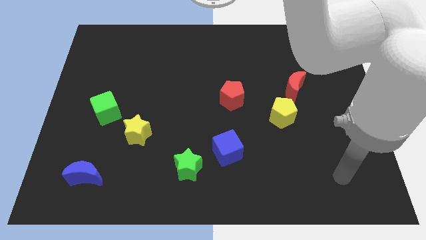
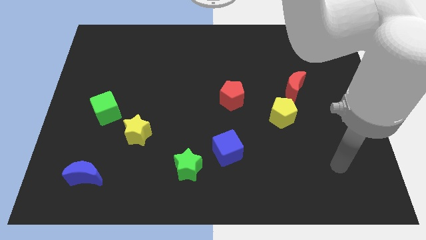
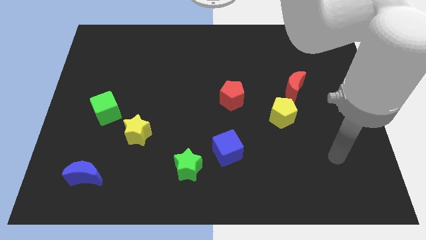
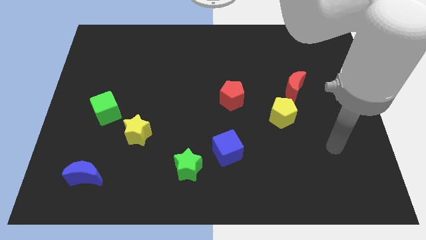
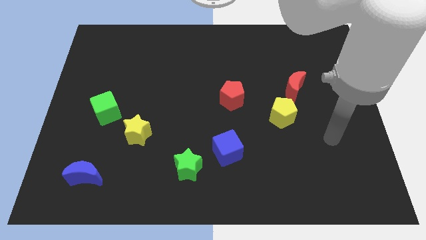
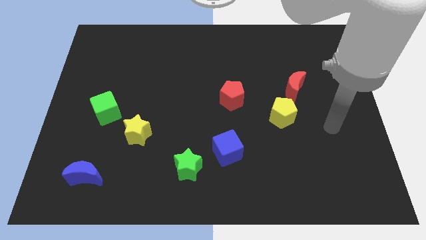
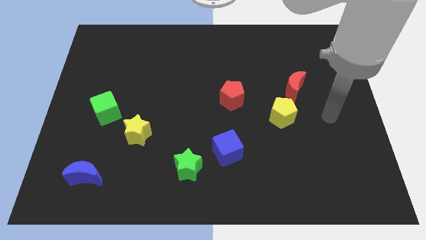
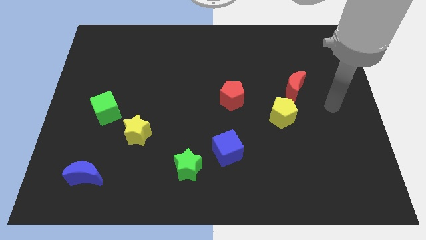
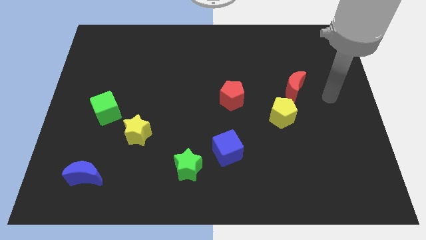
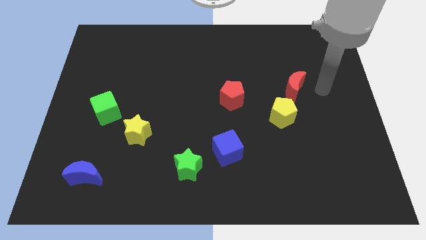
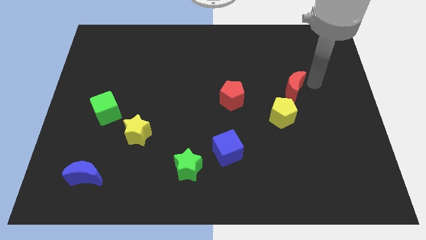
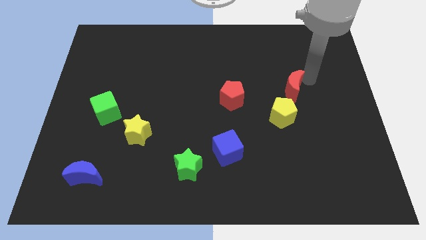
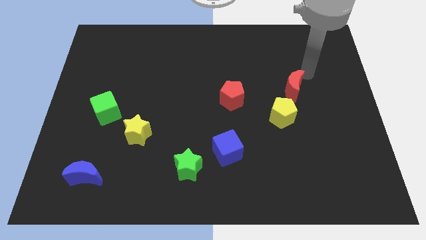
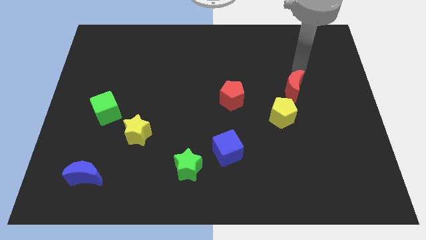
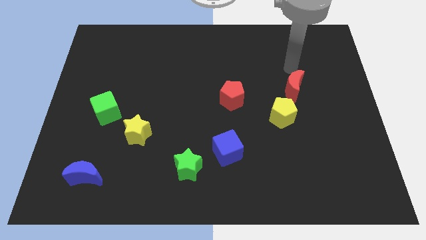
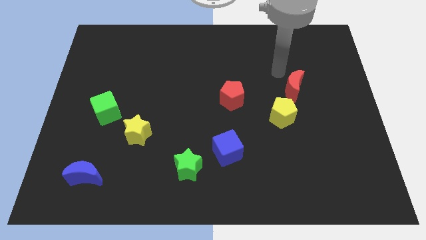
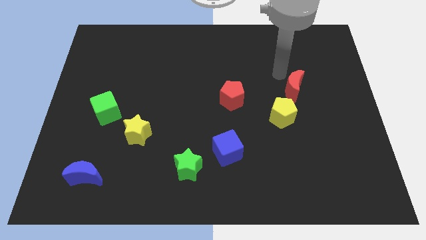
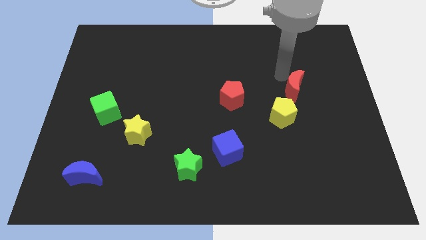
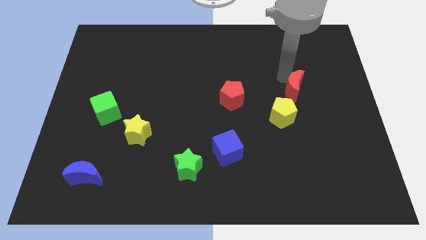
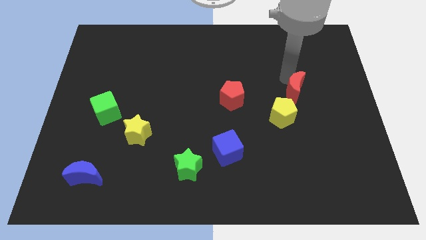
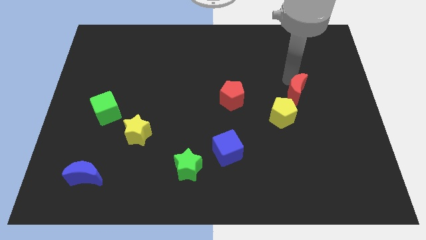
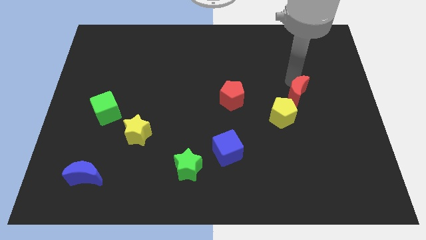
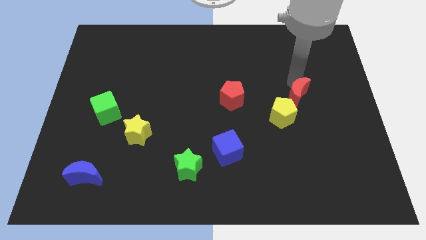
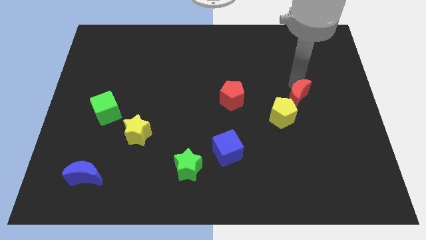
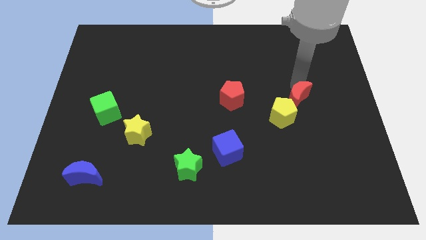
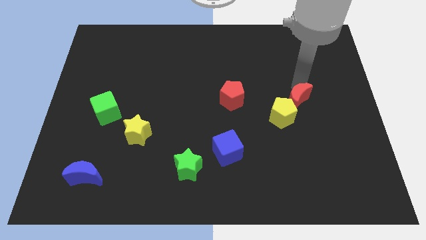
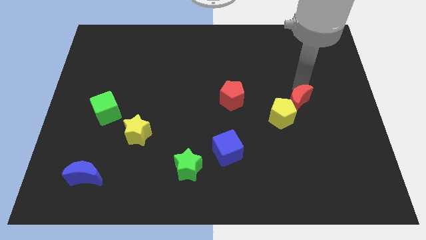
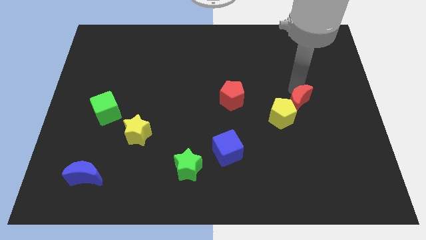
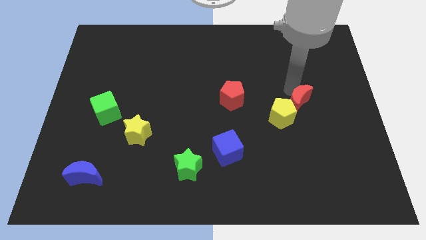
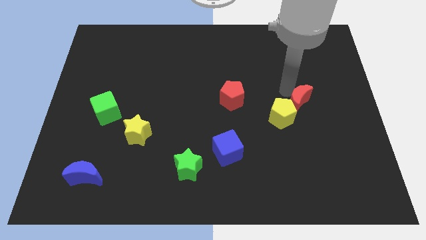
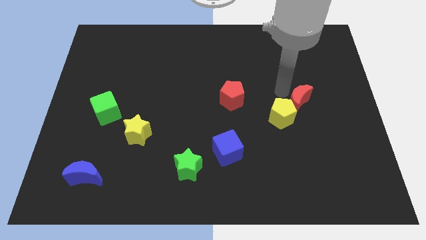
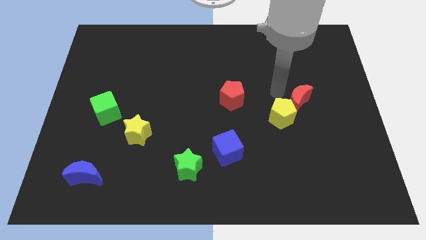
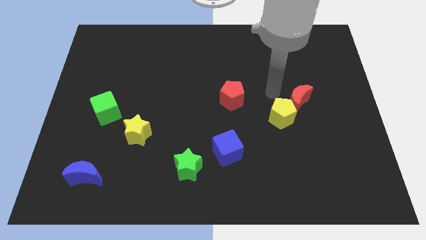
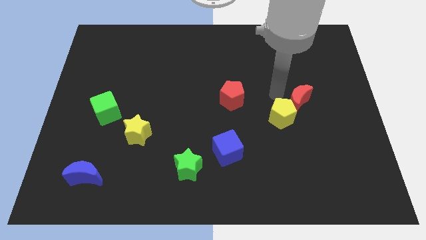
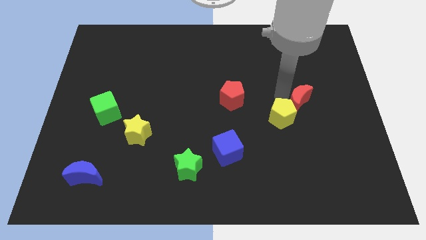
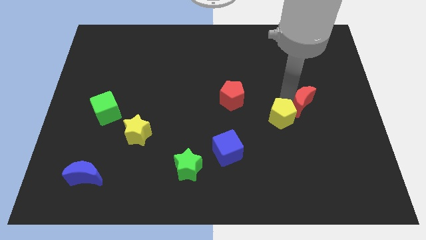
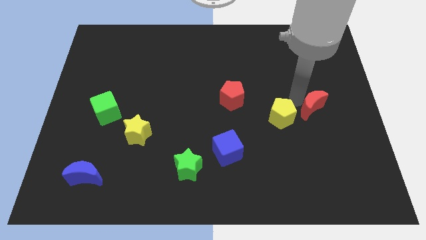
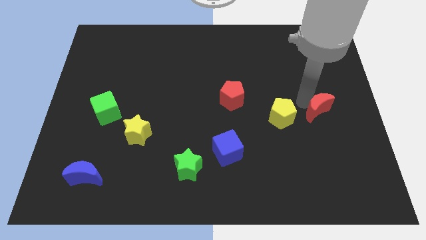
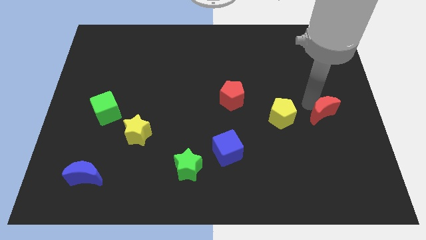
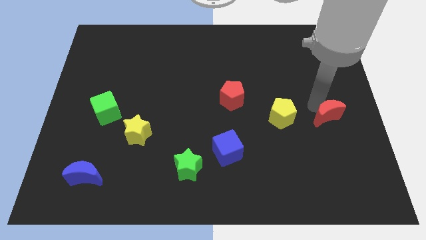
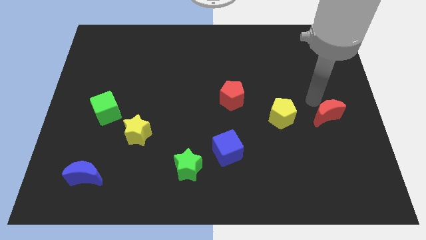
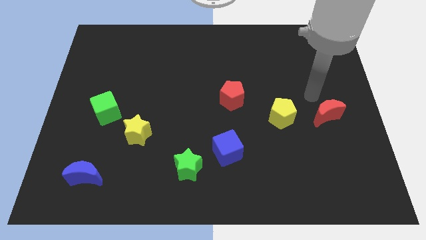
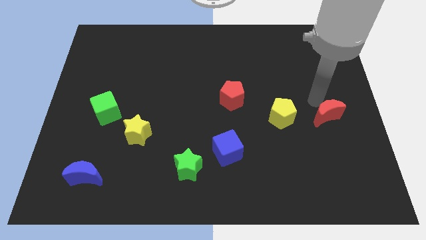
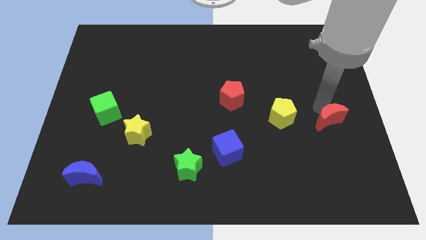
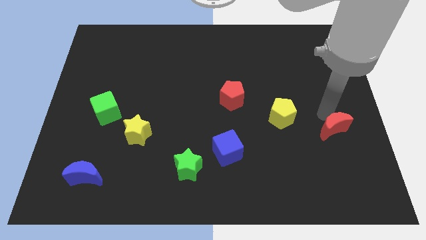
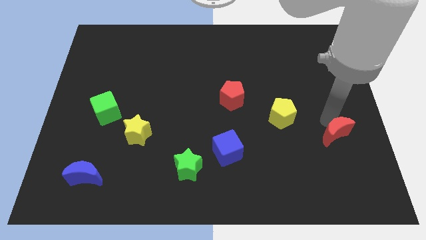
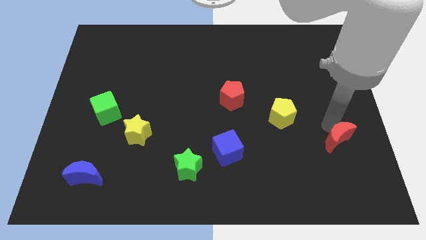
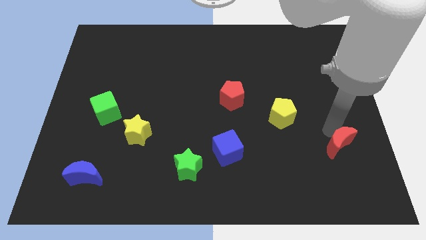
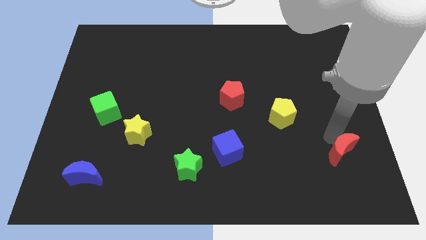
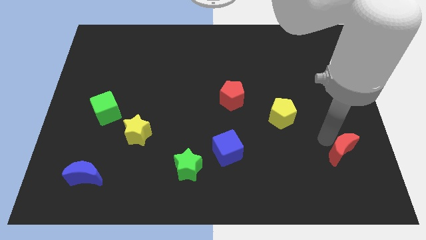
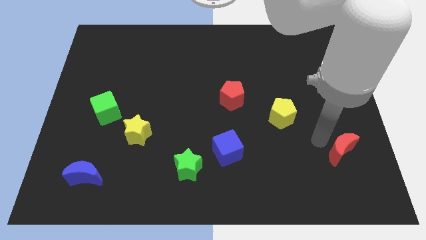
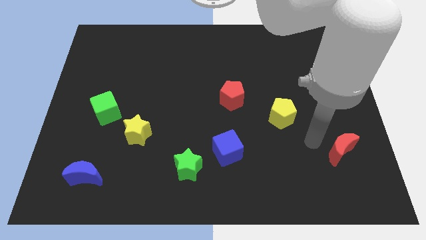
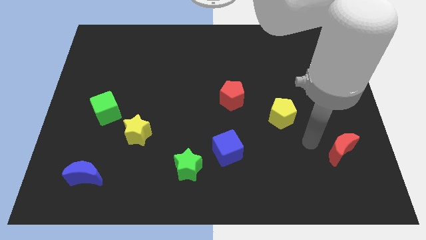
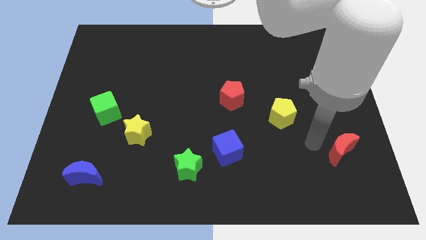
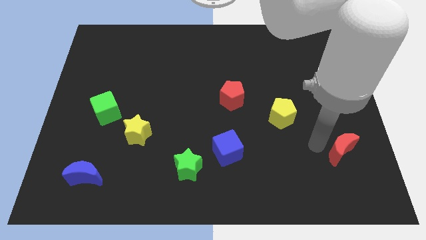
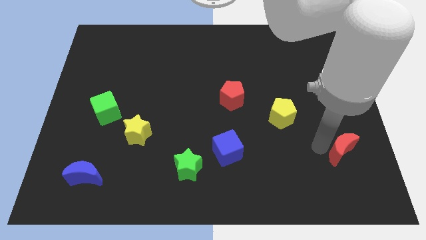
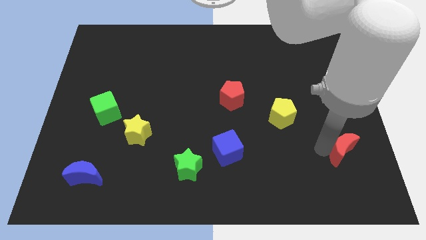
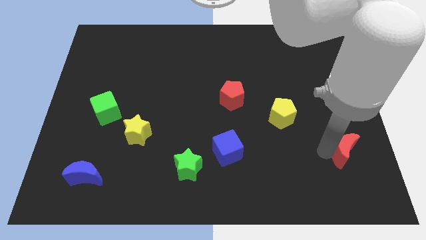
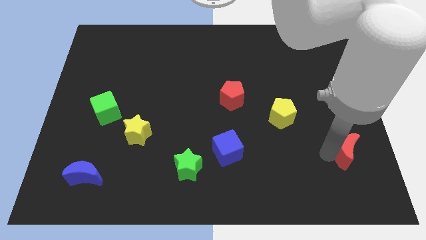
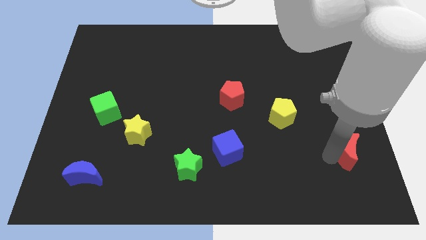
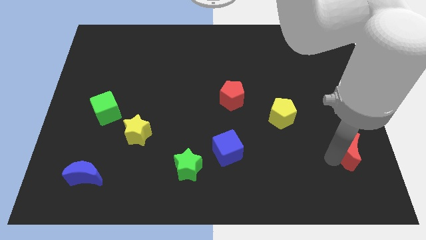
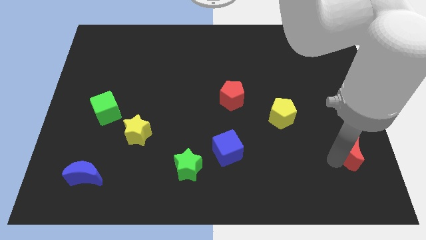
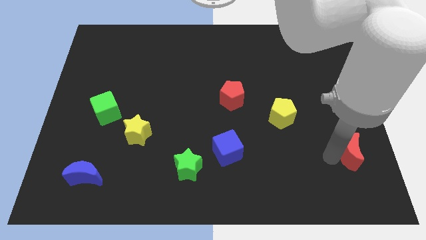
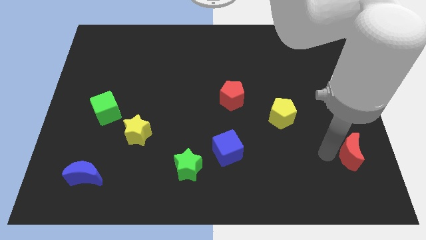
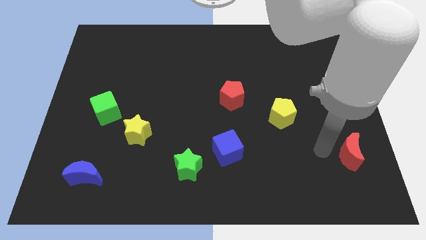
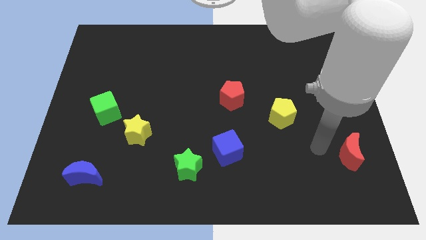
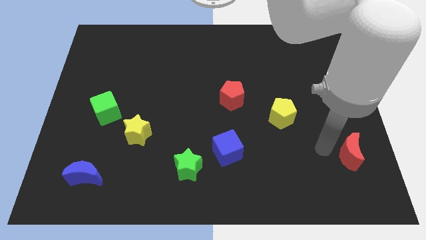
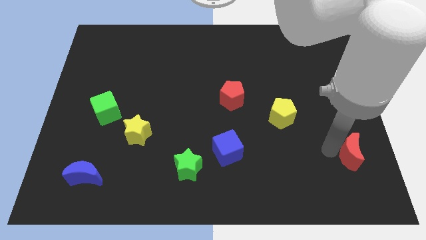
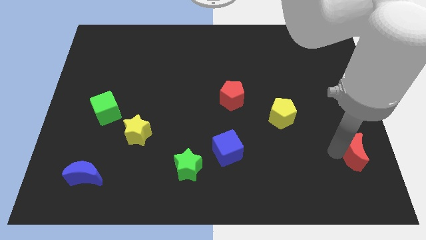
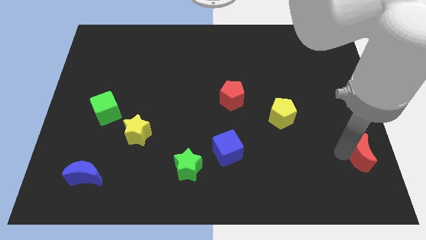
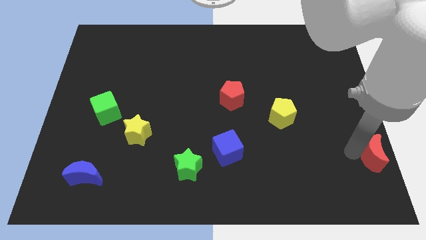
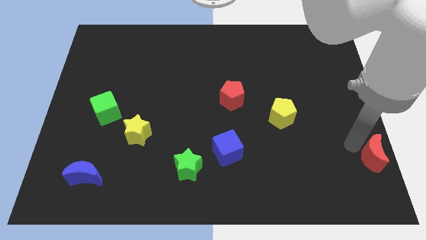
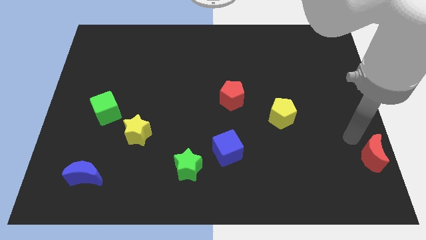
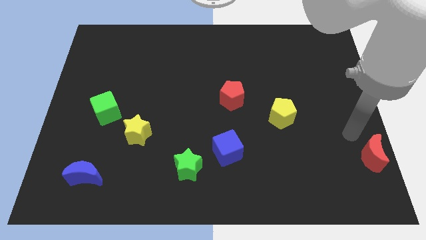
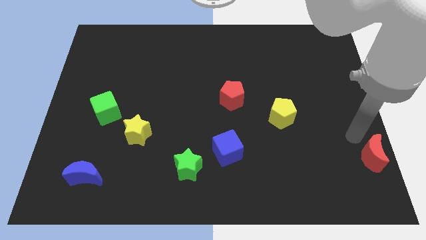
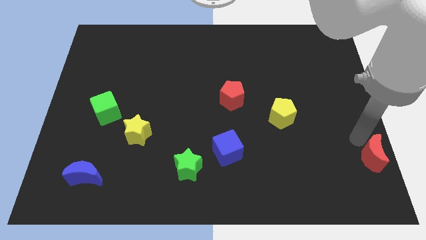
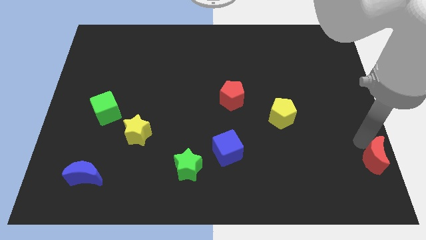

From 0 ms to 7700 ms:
slide the red moon to the bottom right of the board
